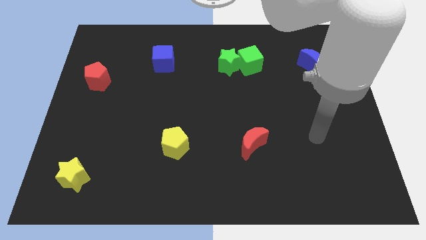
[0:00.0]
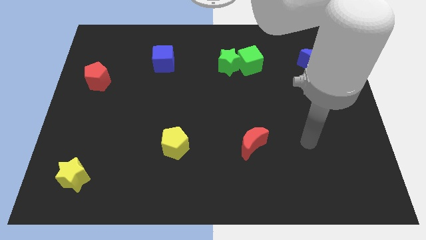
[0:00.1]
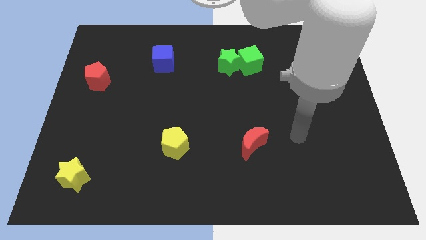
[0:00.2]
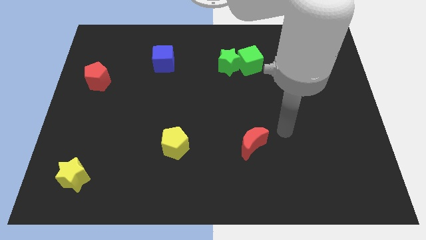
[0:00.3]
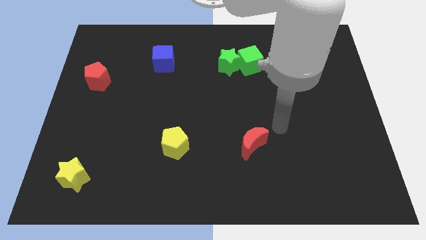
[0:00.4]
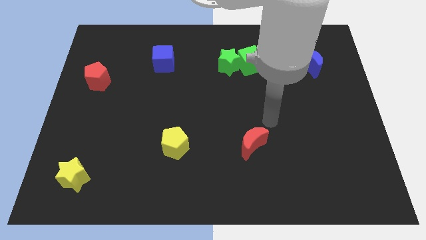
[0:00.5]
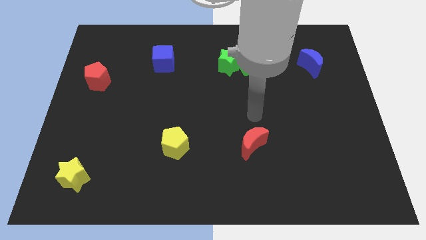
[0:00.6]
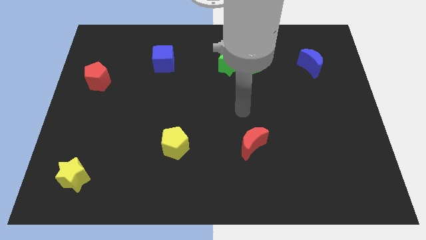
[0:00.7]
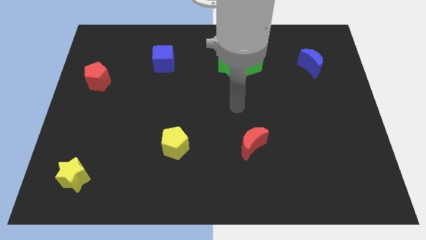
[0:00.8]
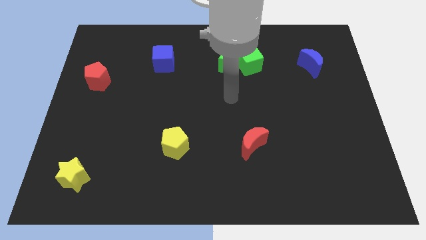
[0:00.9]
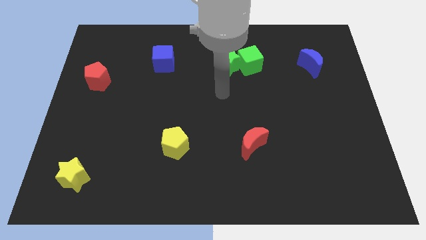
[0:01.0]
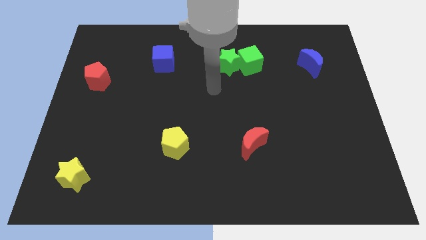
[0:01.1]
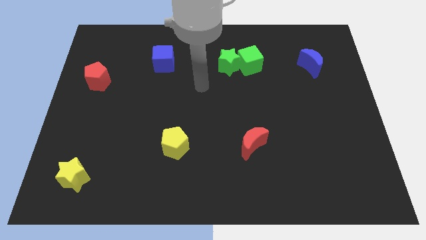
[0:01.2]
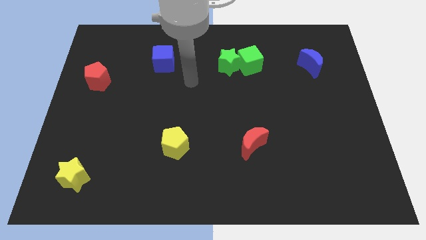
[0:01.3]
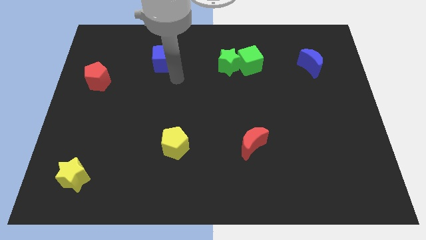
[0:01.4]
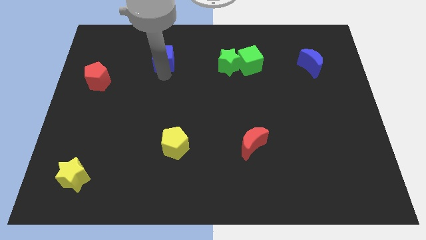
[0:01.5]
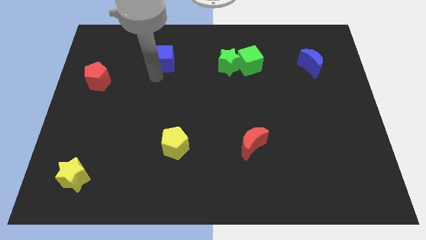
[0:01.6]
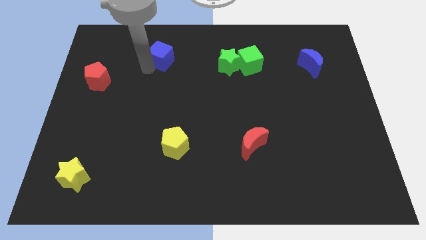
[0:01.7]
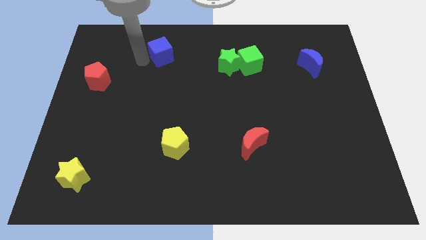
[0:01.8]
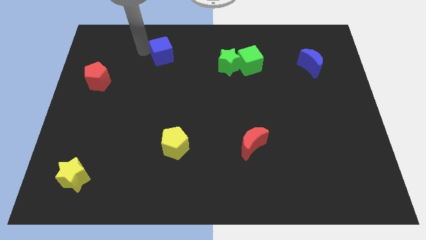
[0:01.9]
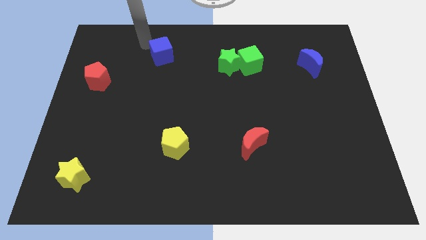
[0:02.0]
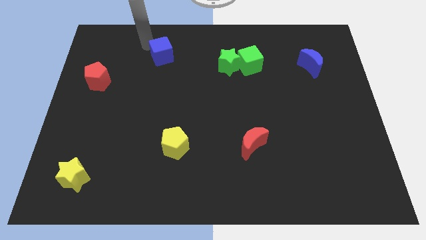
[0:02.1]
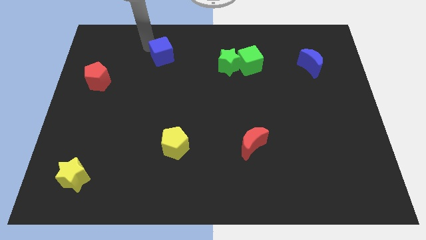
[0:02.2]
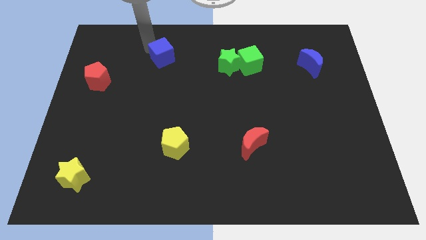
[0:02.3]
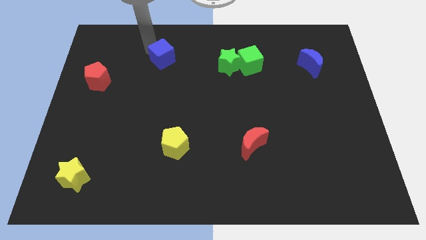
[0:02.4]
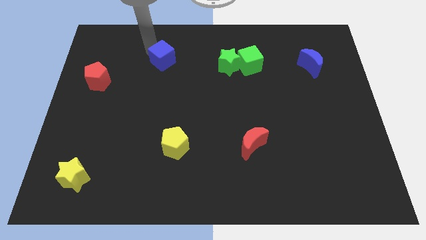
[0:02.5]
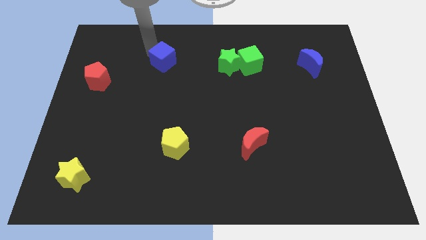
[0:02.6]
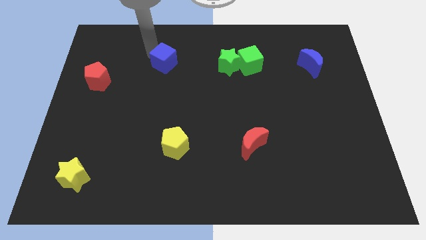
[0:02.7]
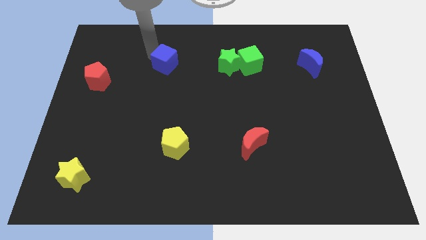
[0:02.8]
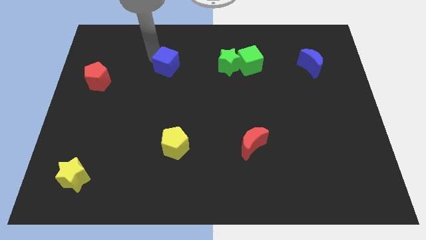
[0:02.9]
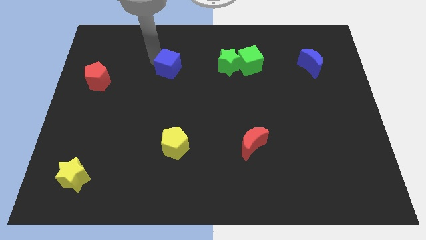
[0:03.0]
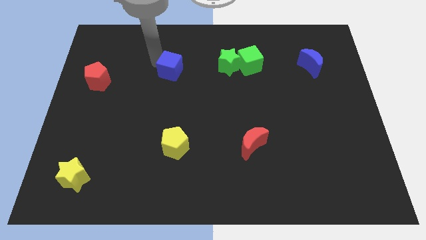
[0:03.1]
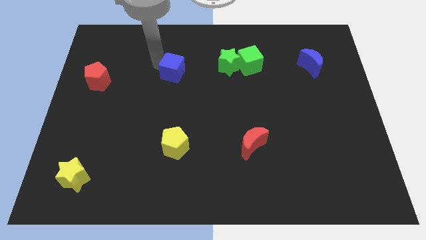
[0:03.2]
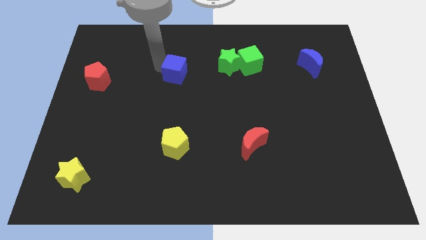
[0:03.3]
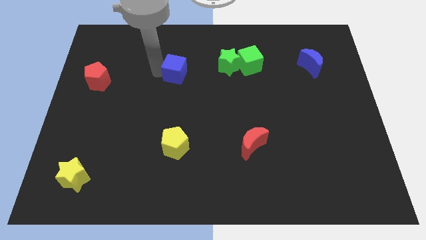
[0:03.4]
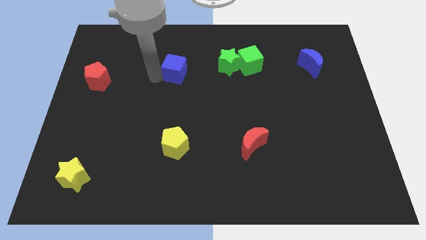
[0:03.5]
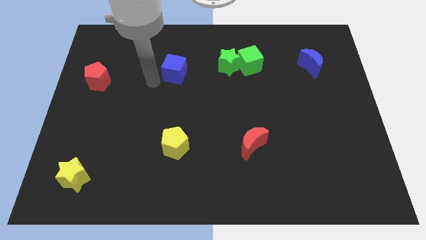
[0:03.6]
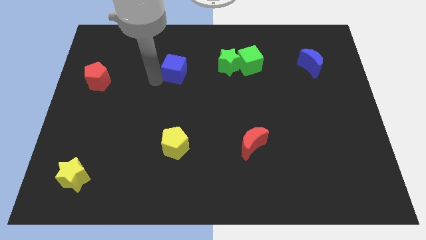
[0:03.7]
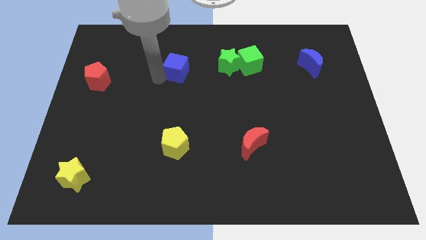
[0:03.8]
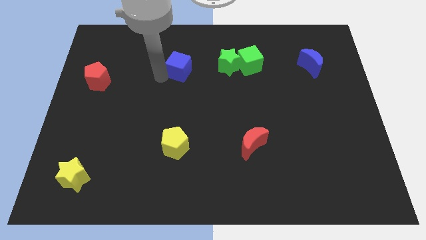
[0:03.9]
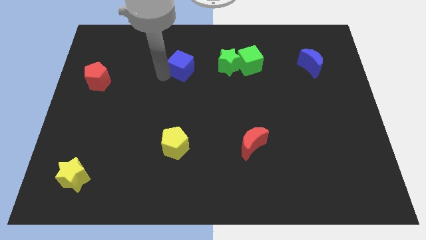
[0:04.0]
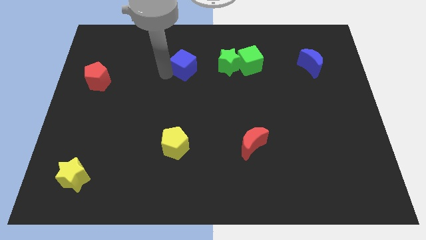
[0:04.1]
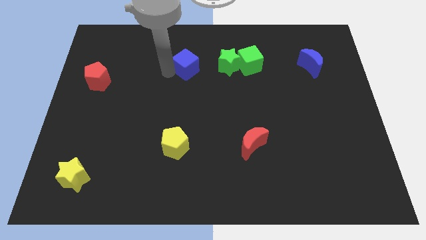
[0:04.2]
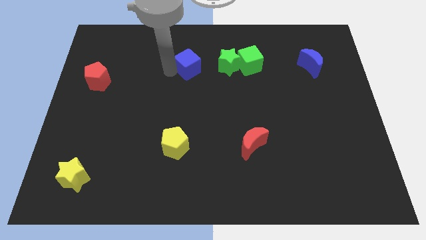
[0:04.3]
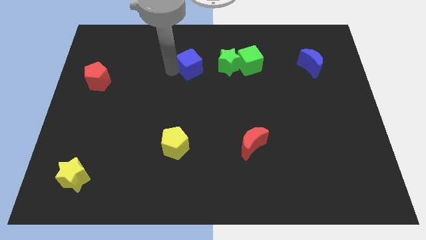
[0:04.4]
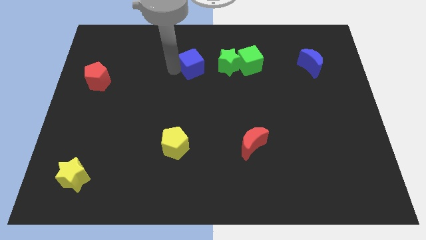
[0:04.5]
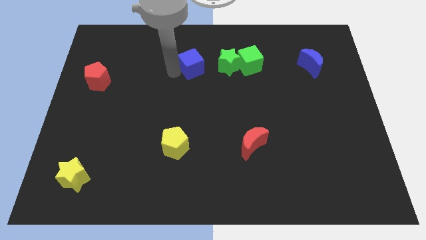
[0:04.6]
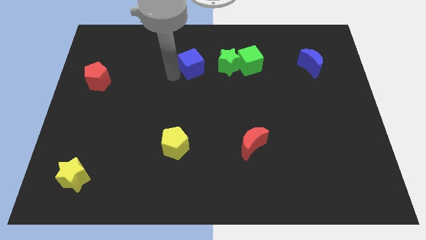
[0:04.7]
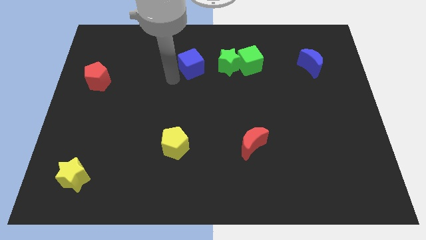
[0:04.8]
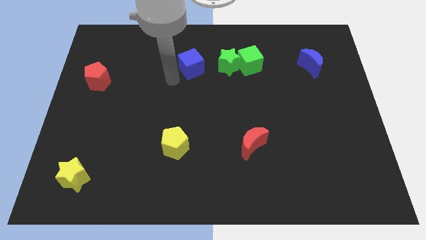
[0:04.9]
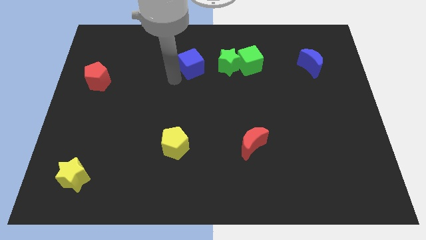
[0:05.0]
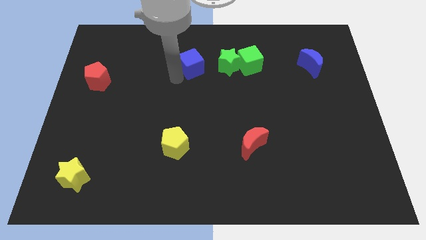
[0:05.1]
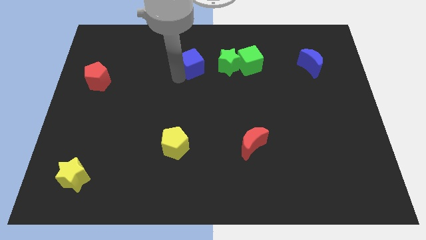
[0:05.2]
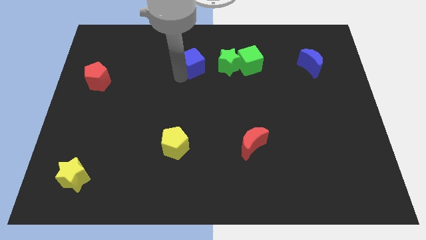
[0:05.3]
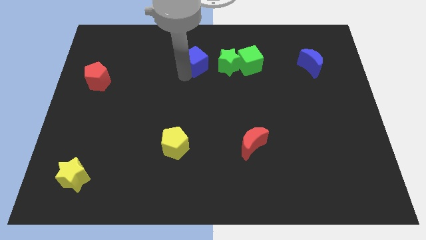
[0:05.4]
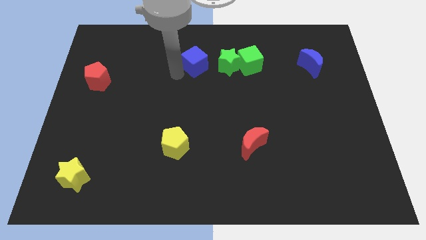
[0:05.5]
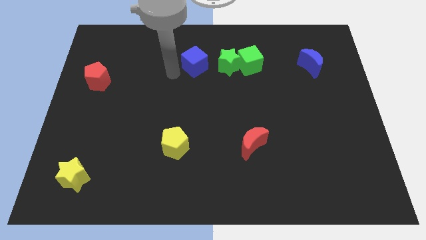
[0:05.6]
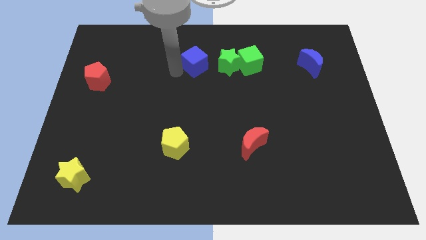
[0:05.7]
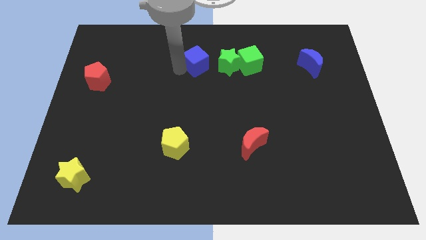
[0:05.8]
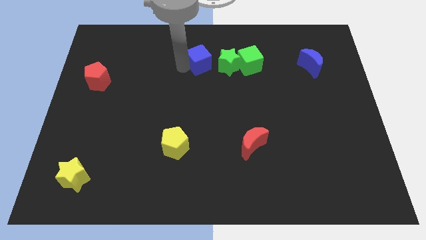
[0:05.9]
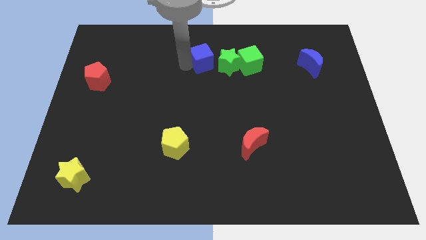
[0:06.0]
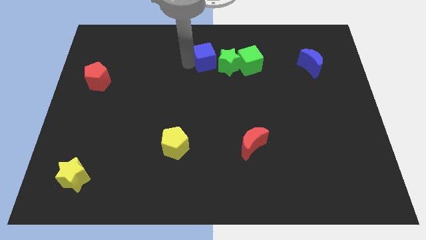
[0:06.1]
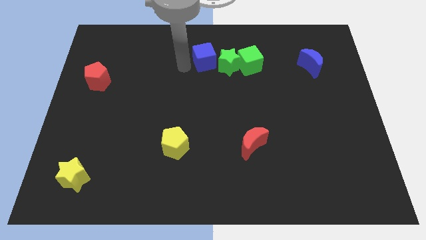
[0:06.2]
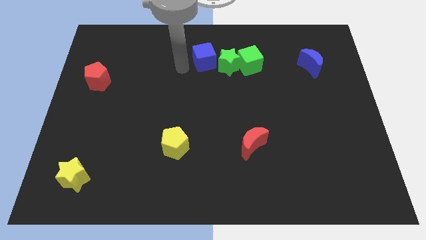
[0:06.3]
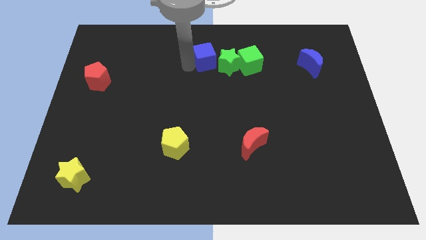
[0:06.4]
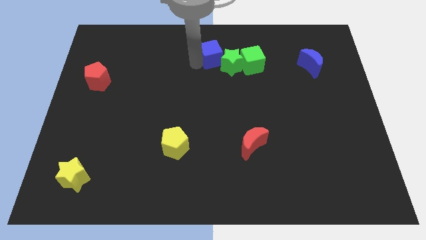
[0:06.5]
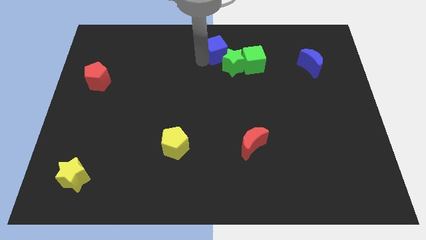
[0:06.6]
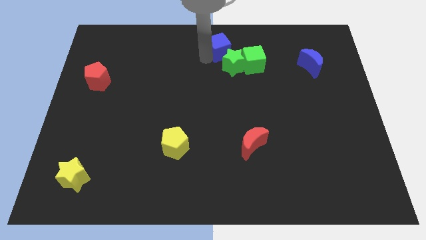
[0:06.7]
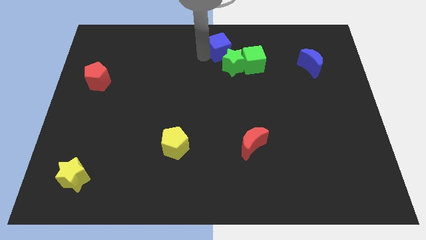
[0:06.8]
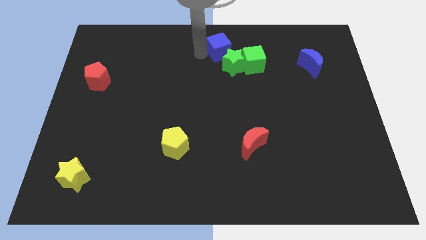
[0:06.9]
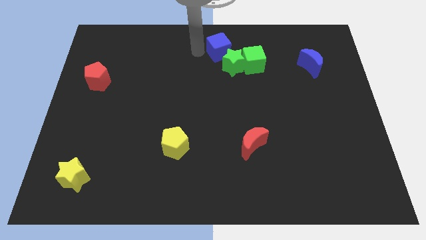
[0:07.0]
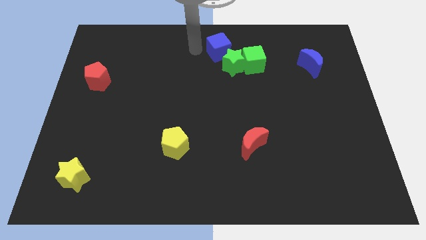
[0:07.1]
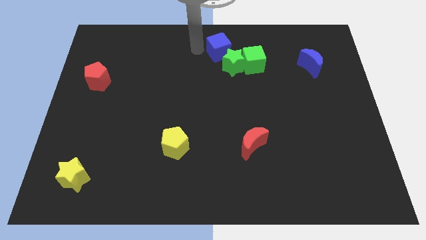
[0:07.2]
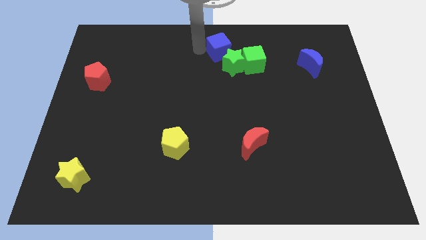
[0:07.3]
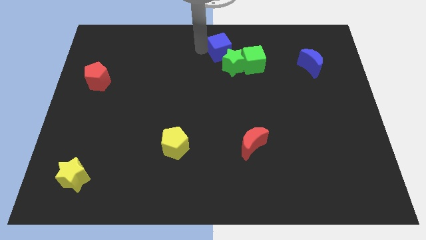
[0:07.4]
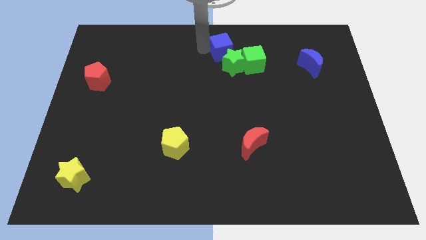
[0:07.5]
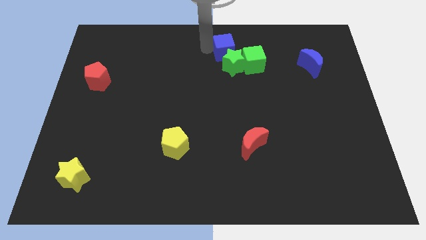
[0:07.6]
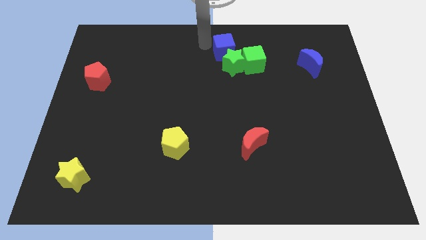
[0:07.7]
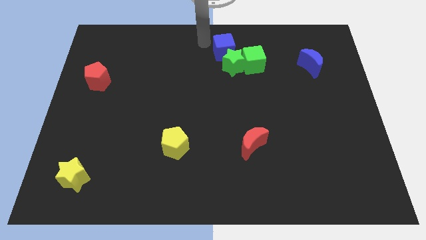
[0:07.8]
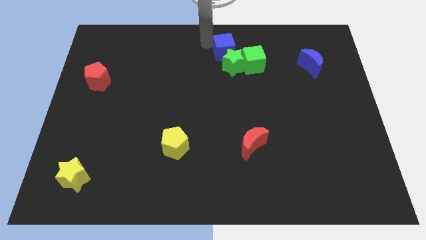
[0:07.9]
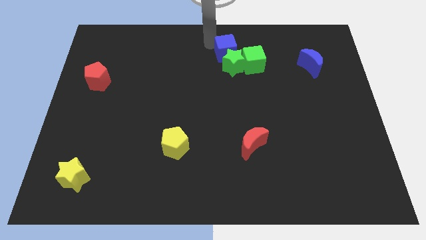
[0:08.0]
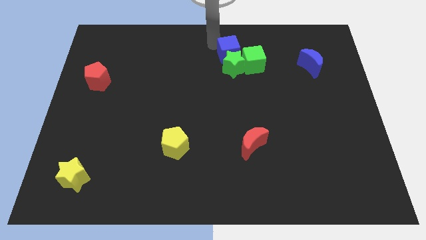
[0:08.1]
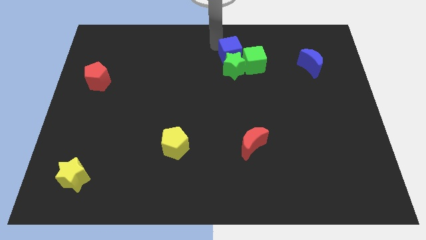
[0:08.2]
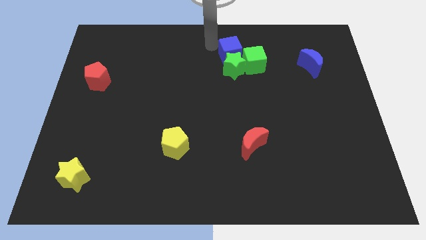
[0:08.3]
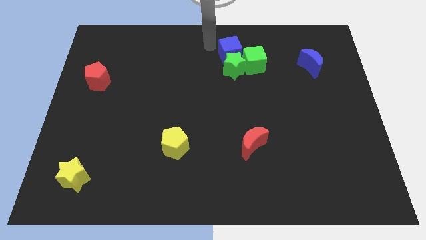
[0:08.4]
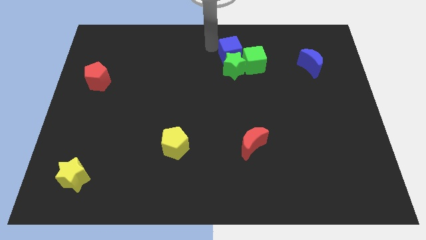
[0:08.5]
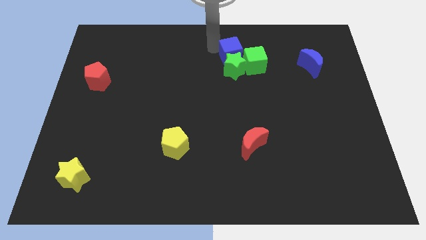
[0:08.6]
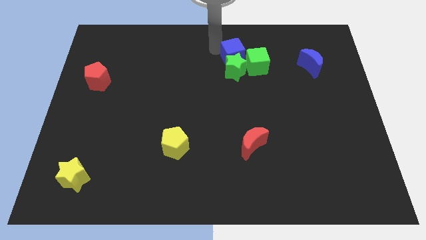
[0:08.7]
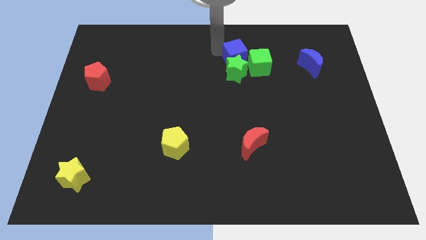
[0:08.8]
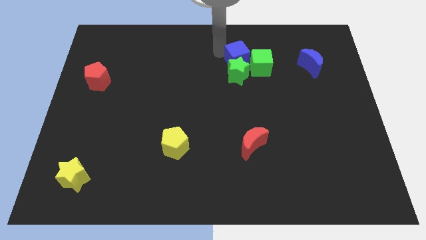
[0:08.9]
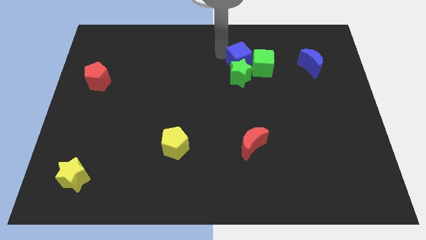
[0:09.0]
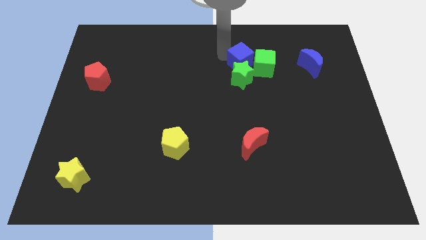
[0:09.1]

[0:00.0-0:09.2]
move the blue cube close to the green cube
